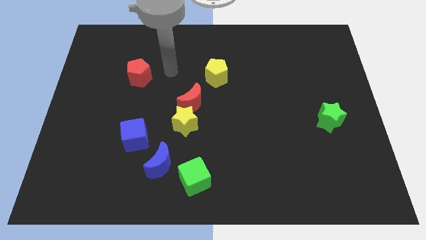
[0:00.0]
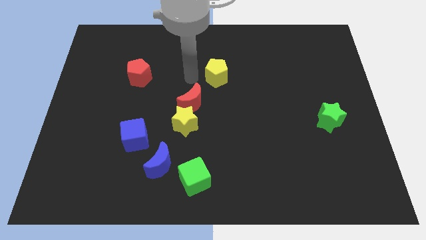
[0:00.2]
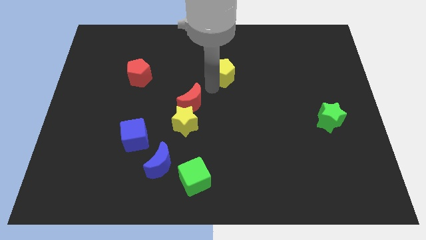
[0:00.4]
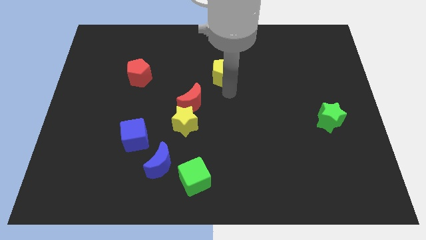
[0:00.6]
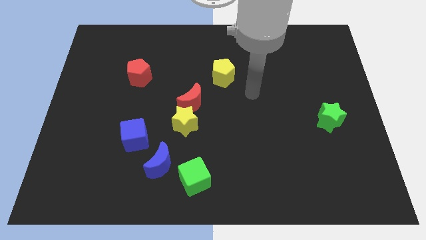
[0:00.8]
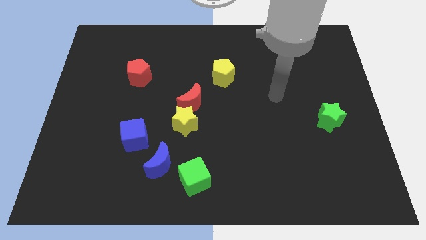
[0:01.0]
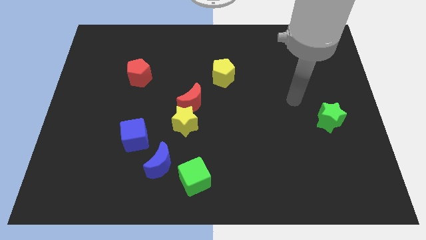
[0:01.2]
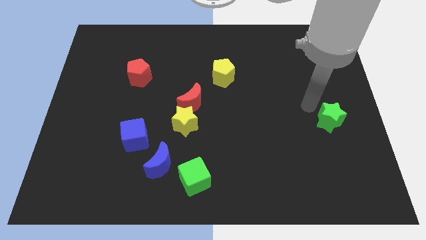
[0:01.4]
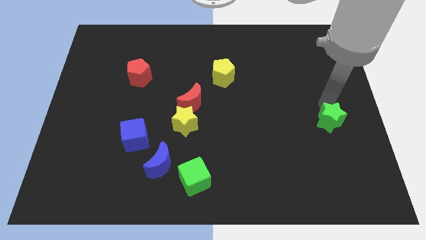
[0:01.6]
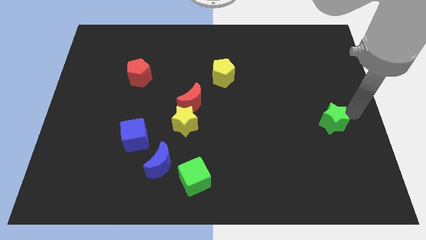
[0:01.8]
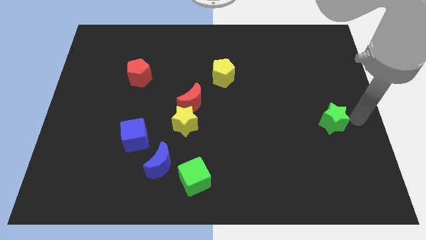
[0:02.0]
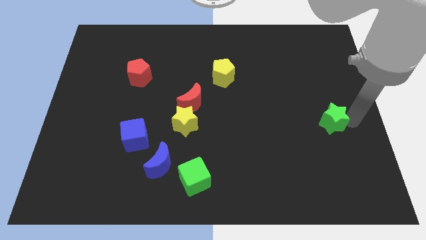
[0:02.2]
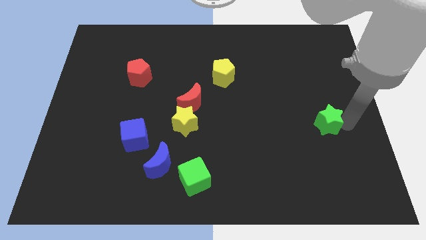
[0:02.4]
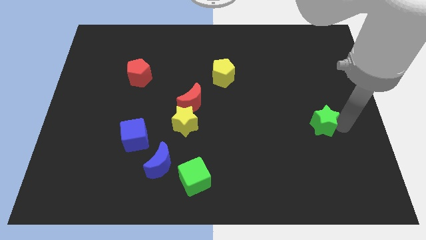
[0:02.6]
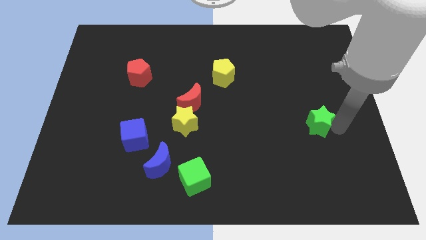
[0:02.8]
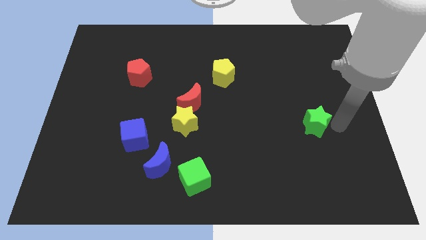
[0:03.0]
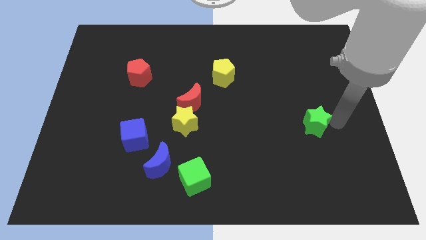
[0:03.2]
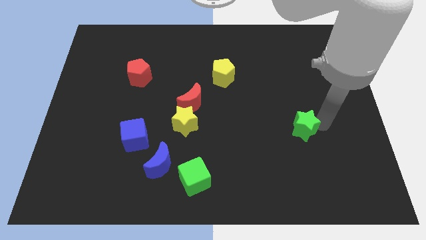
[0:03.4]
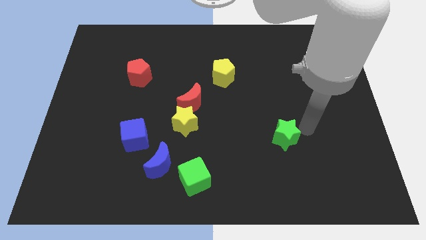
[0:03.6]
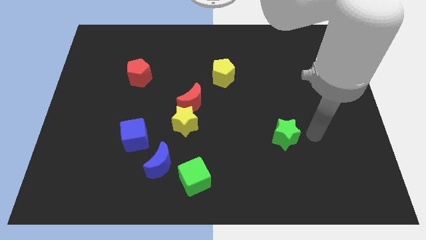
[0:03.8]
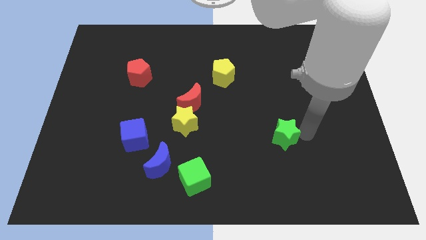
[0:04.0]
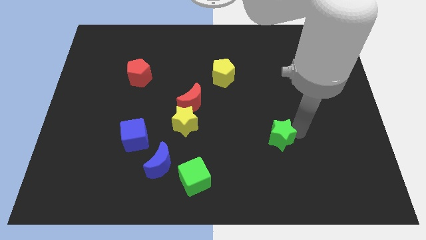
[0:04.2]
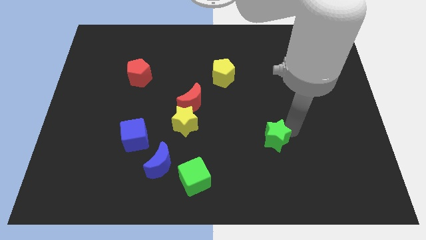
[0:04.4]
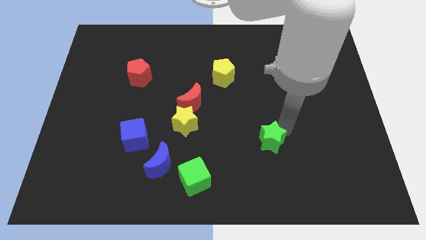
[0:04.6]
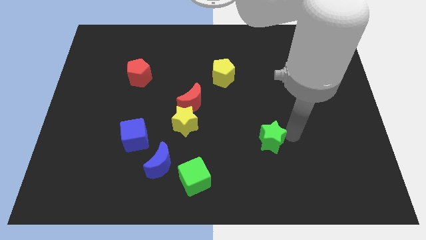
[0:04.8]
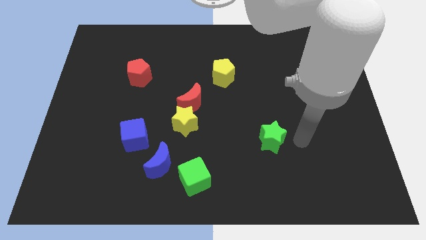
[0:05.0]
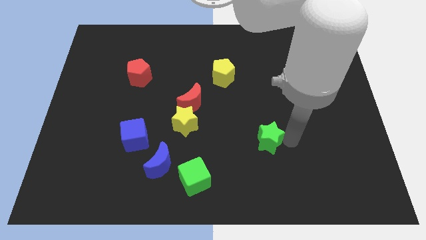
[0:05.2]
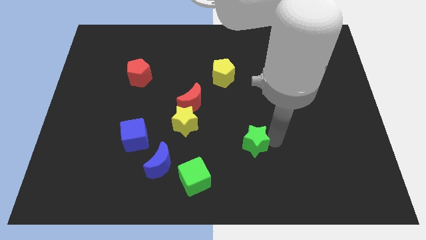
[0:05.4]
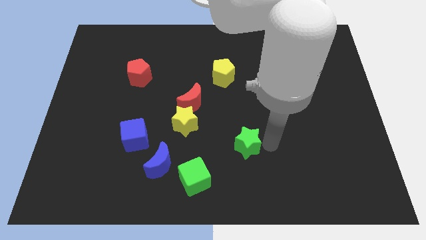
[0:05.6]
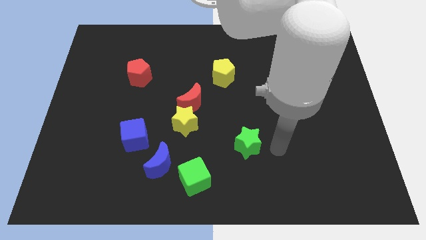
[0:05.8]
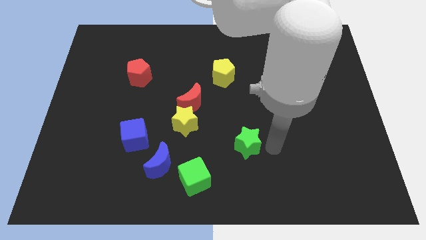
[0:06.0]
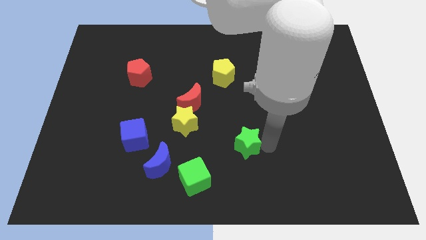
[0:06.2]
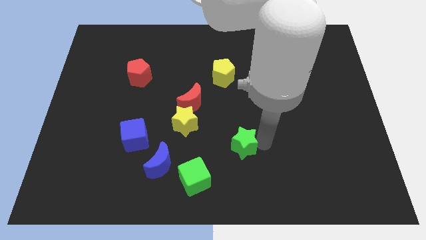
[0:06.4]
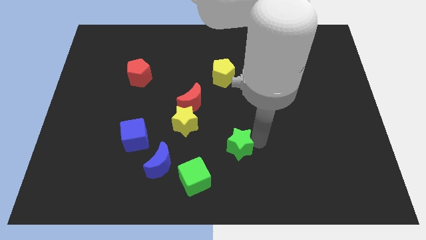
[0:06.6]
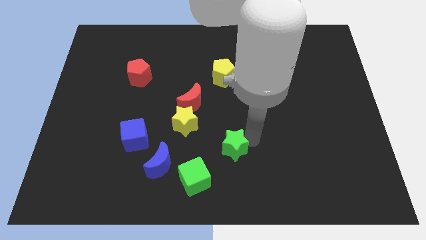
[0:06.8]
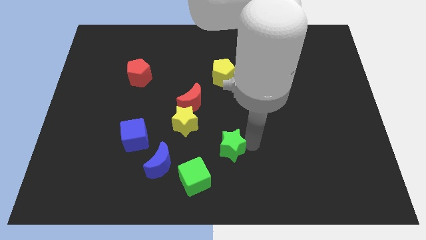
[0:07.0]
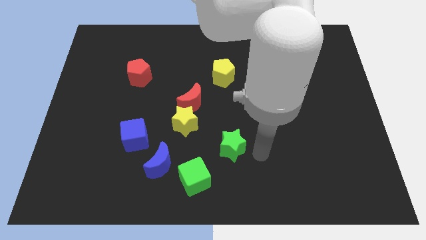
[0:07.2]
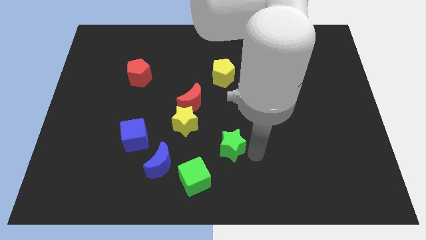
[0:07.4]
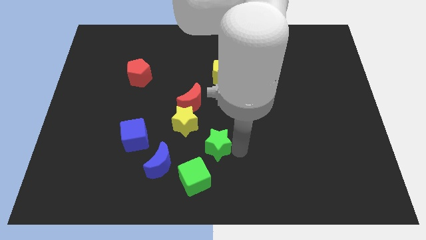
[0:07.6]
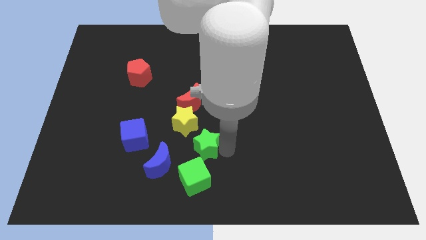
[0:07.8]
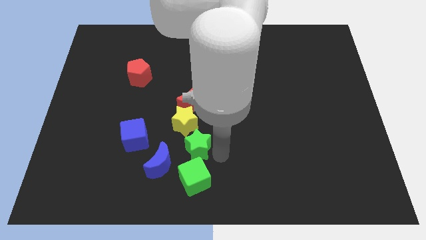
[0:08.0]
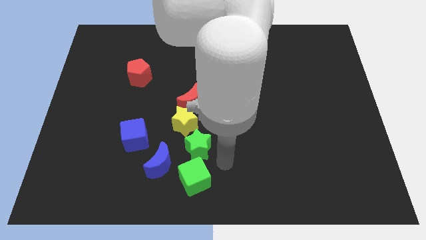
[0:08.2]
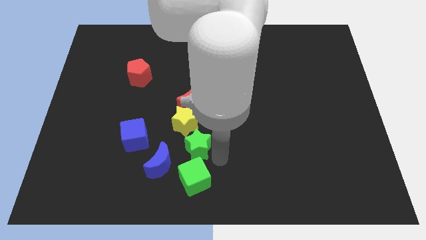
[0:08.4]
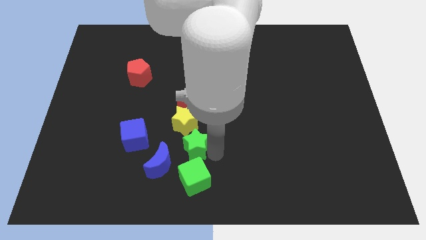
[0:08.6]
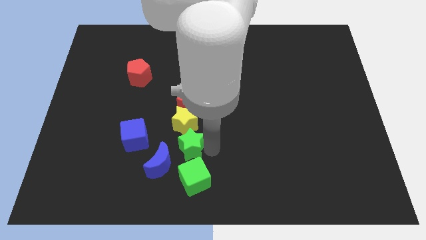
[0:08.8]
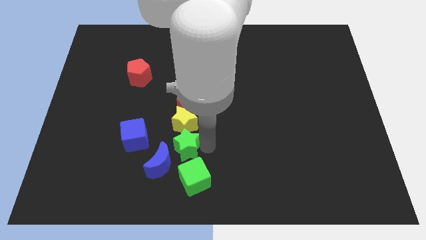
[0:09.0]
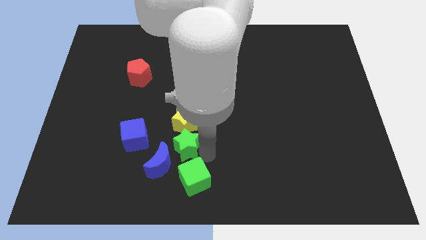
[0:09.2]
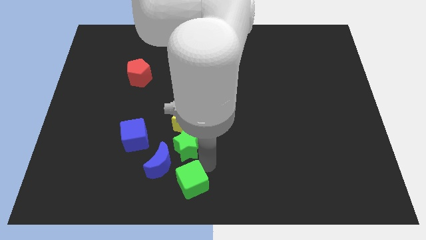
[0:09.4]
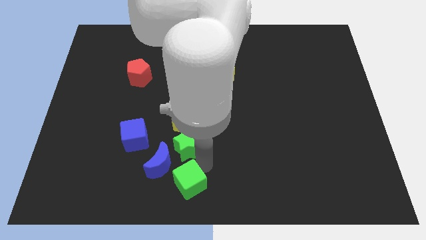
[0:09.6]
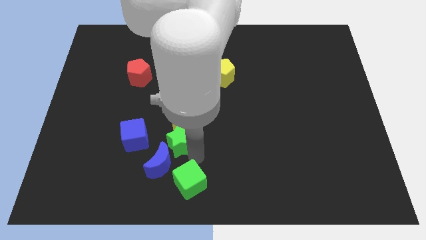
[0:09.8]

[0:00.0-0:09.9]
put the green star to the top of the blue moon

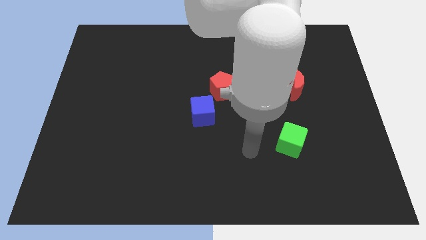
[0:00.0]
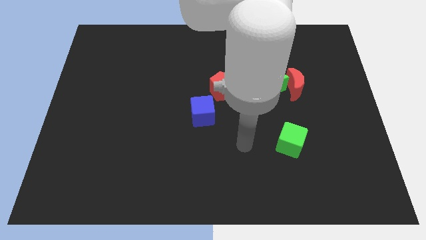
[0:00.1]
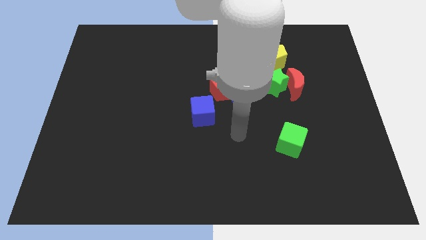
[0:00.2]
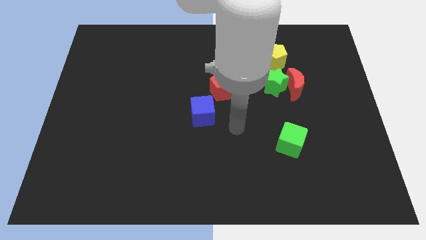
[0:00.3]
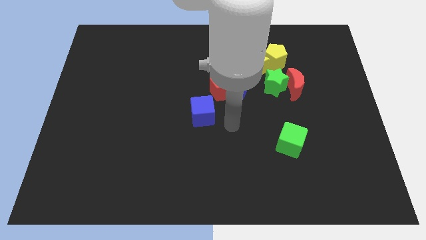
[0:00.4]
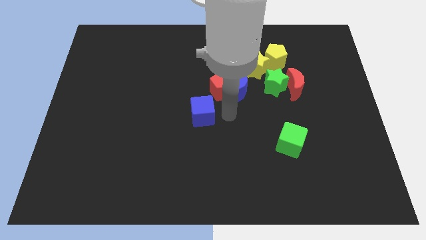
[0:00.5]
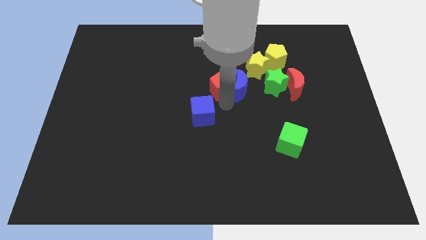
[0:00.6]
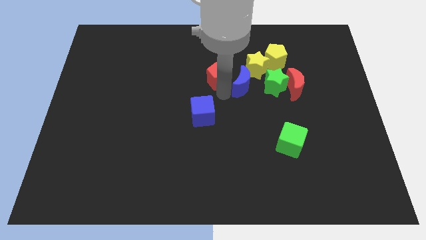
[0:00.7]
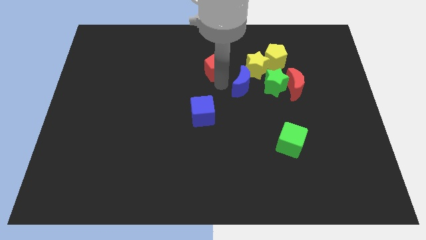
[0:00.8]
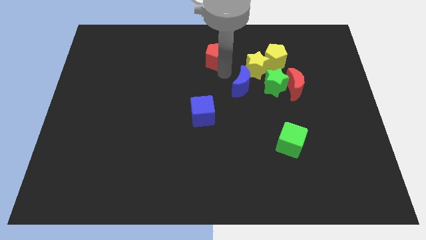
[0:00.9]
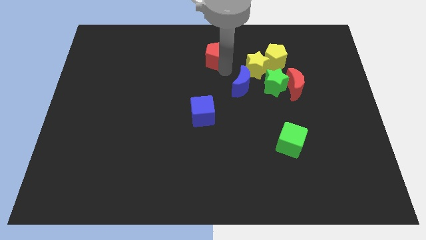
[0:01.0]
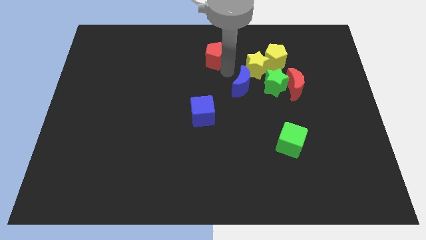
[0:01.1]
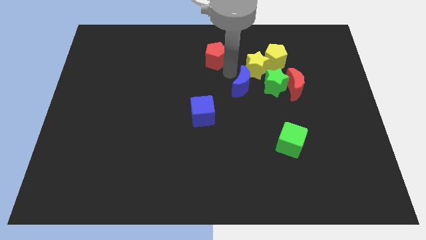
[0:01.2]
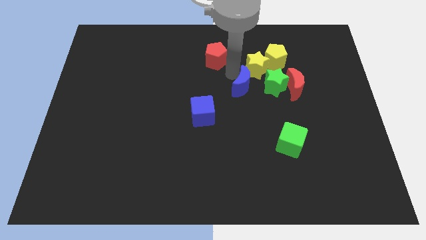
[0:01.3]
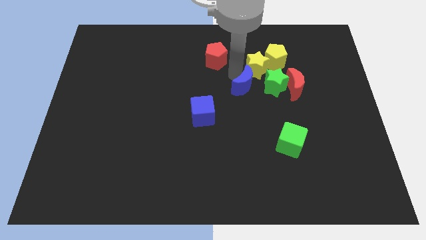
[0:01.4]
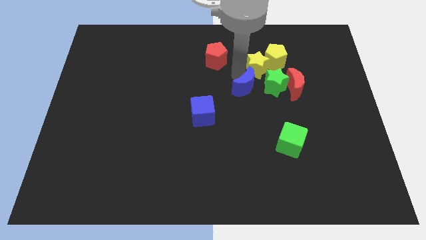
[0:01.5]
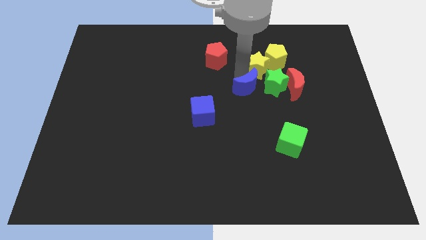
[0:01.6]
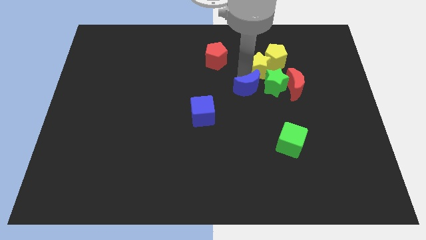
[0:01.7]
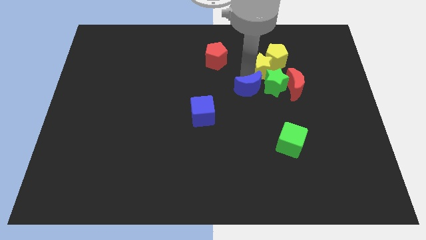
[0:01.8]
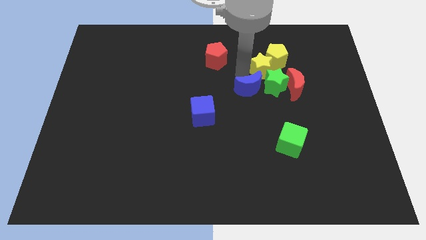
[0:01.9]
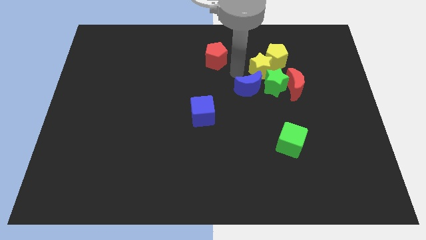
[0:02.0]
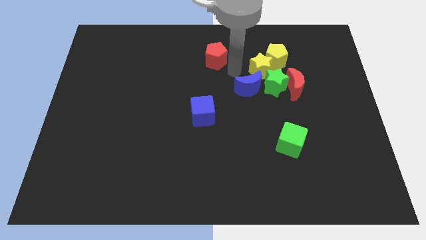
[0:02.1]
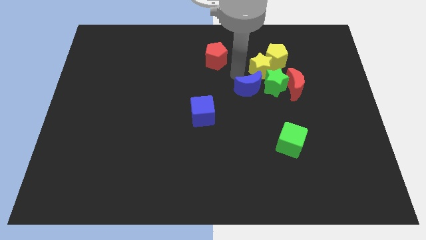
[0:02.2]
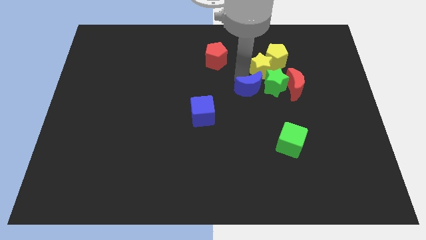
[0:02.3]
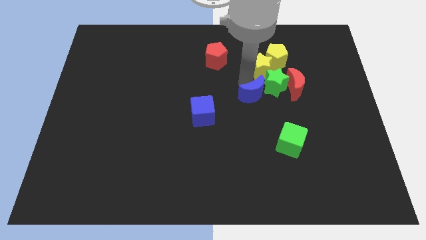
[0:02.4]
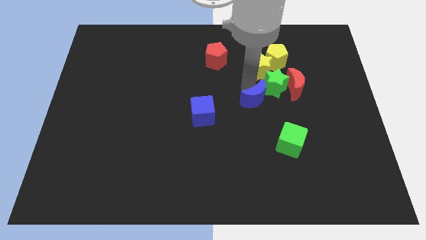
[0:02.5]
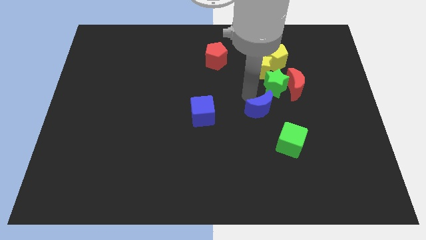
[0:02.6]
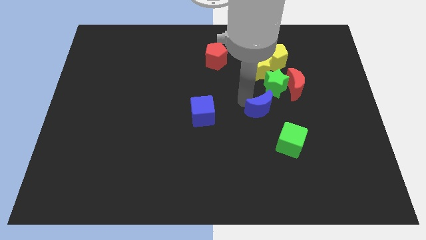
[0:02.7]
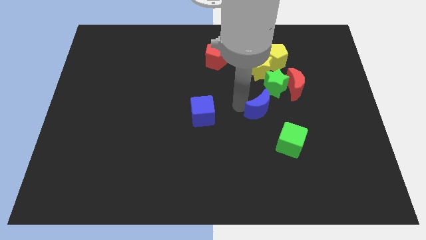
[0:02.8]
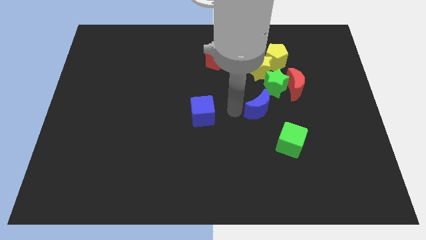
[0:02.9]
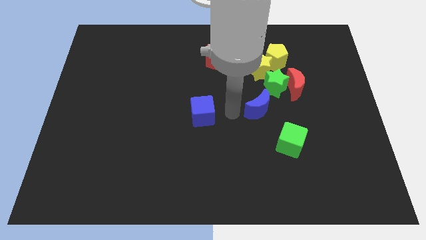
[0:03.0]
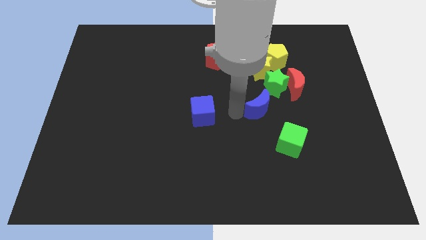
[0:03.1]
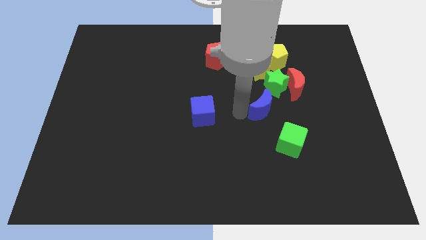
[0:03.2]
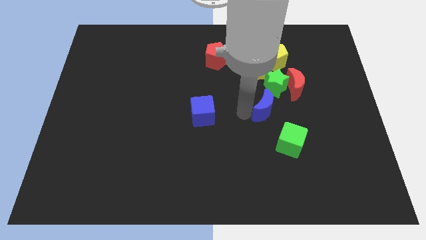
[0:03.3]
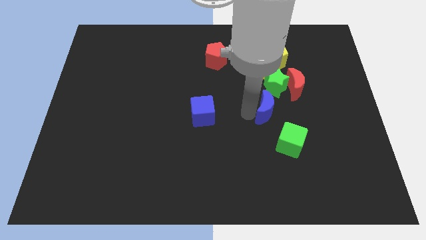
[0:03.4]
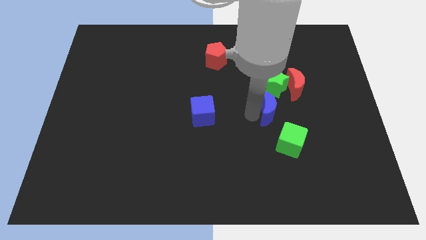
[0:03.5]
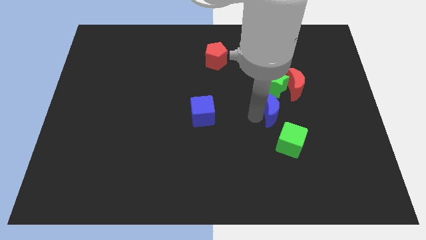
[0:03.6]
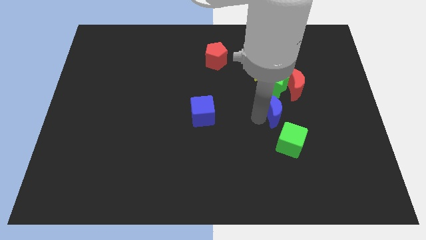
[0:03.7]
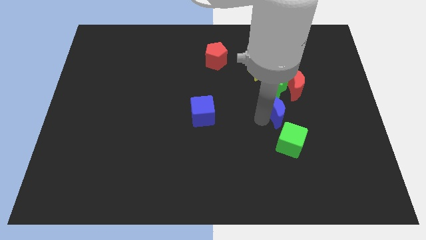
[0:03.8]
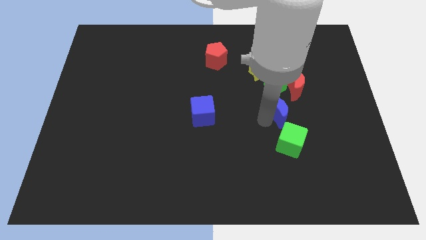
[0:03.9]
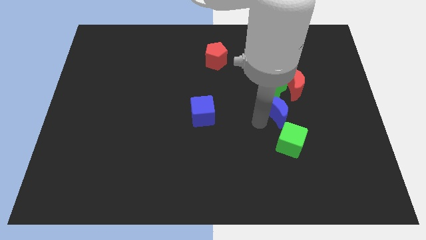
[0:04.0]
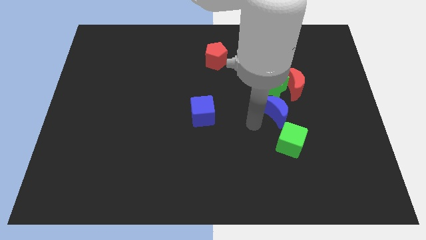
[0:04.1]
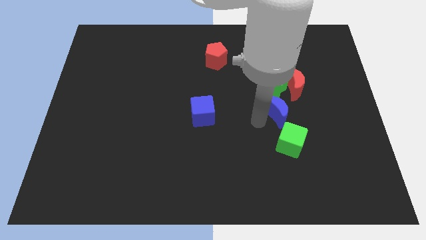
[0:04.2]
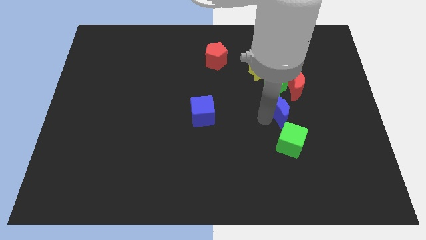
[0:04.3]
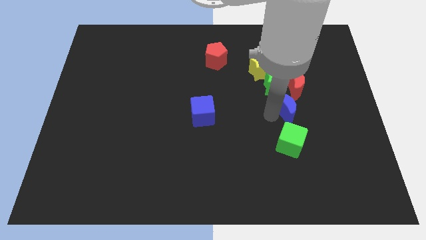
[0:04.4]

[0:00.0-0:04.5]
push the blue moon diagonally down and to the right of the green star
